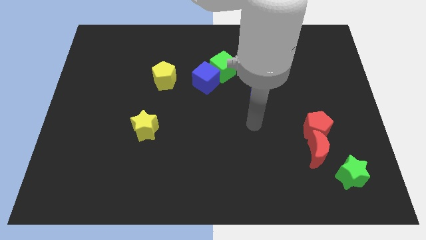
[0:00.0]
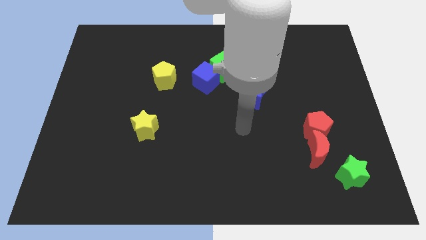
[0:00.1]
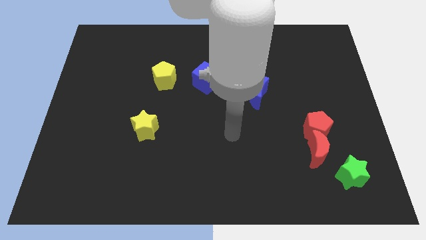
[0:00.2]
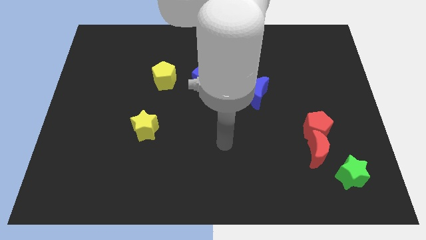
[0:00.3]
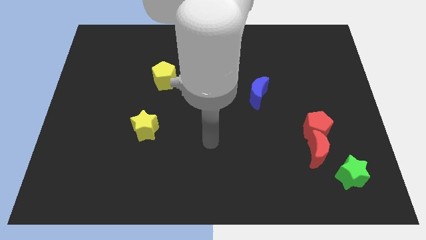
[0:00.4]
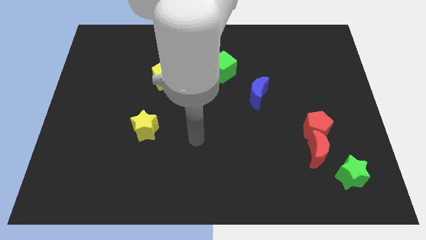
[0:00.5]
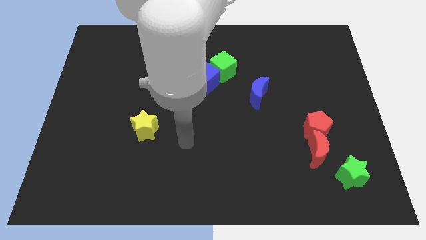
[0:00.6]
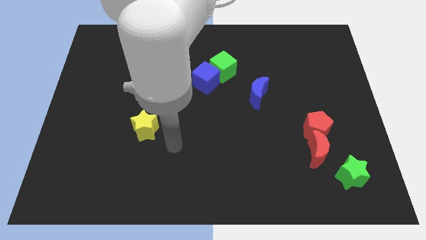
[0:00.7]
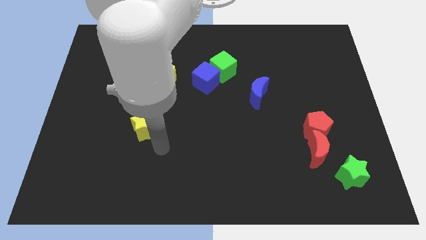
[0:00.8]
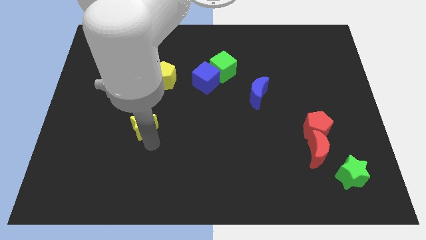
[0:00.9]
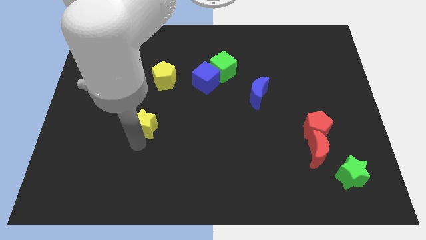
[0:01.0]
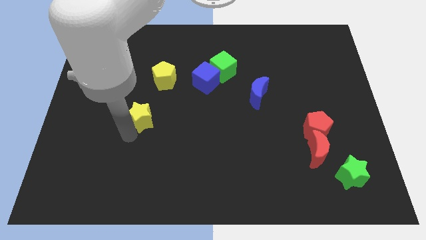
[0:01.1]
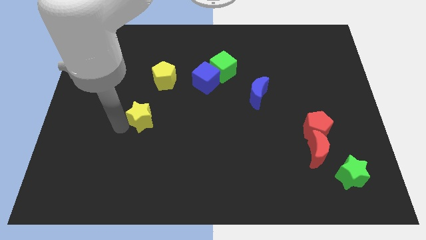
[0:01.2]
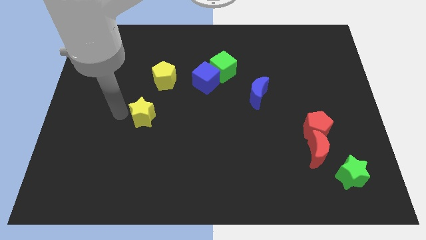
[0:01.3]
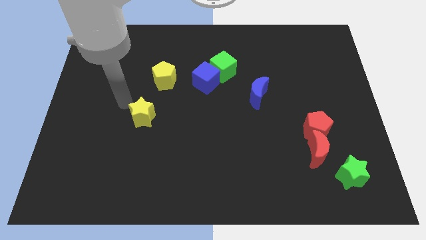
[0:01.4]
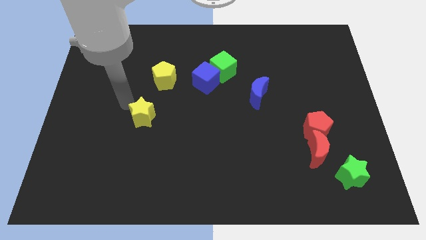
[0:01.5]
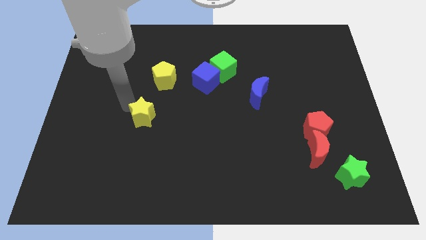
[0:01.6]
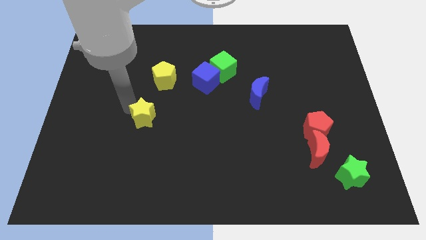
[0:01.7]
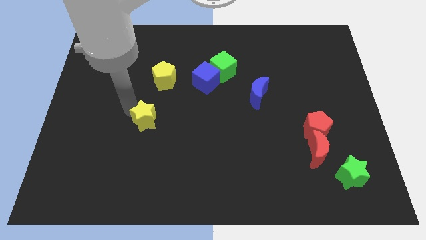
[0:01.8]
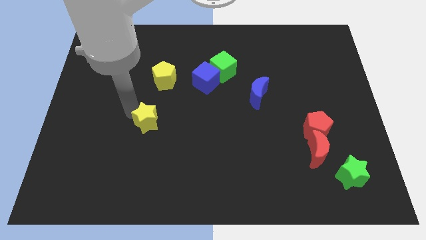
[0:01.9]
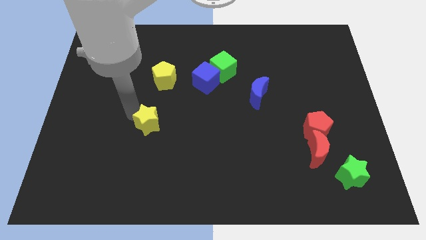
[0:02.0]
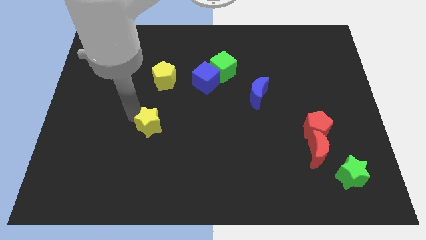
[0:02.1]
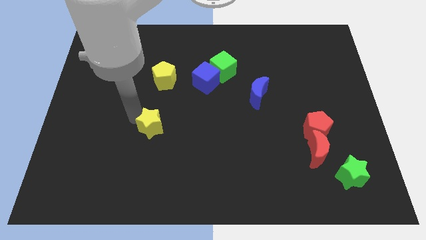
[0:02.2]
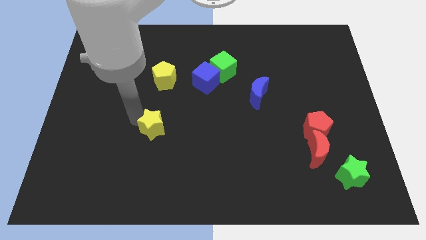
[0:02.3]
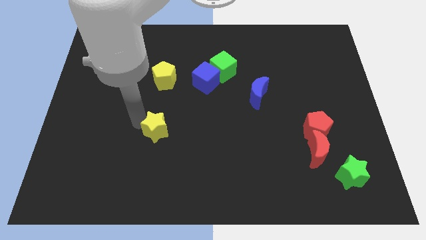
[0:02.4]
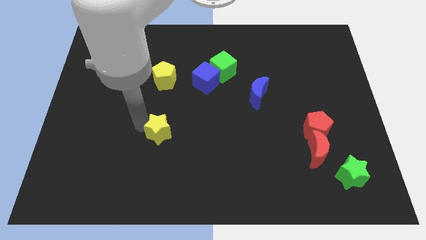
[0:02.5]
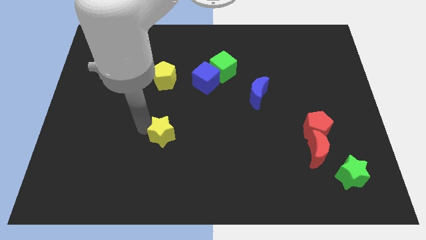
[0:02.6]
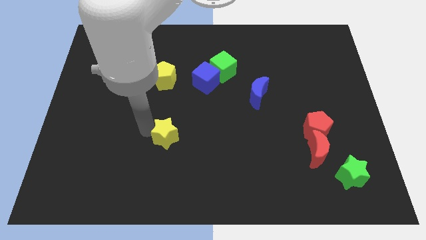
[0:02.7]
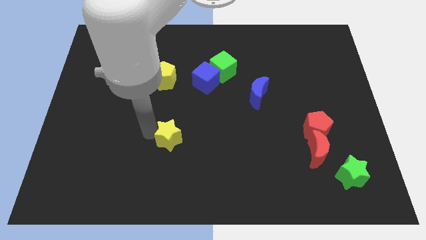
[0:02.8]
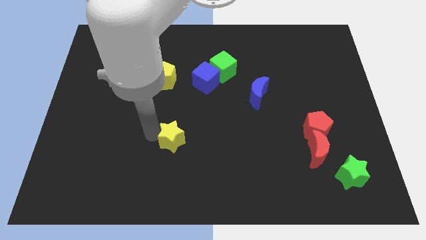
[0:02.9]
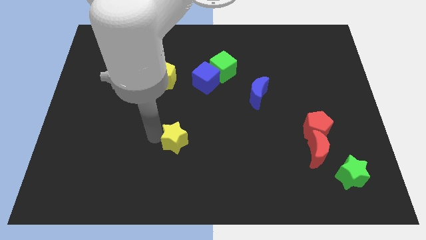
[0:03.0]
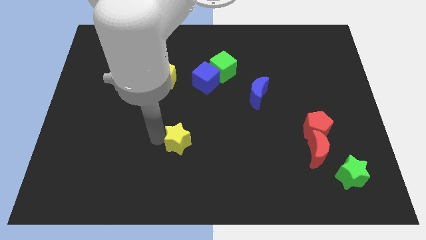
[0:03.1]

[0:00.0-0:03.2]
push the yellow star slightly to the right

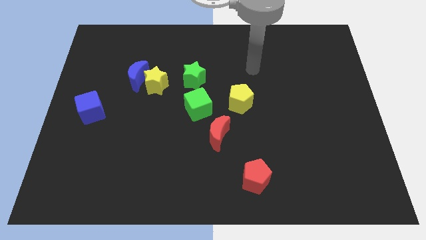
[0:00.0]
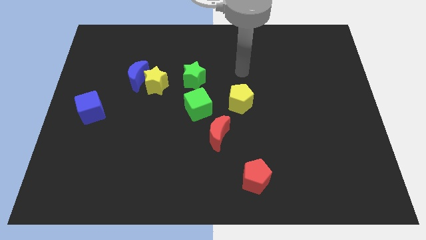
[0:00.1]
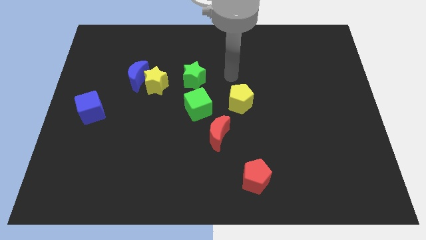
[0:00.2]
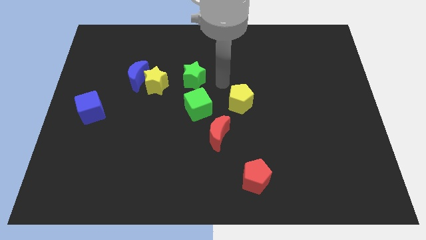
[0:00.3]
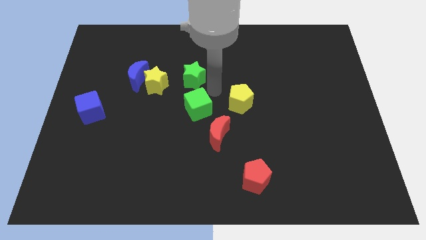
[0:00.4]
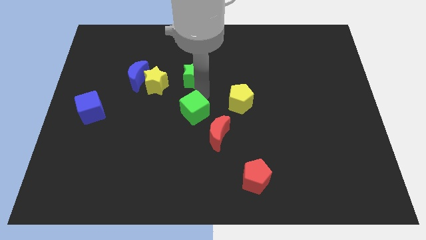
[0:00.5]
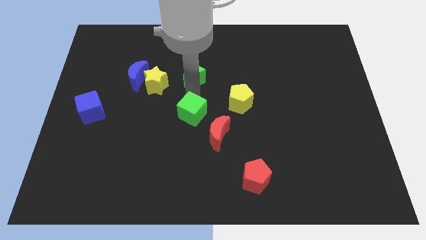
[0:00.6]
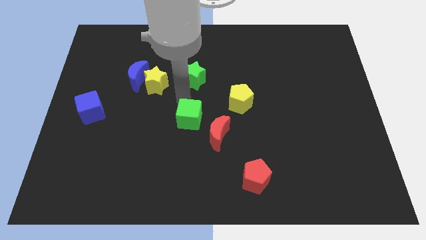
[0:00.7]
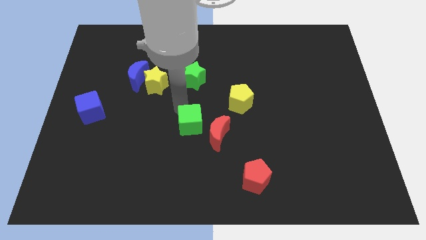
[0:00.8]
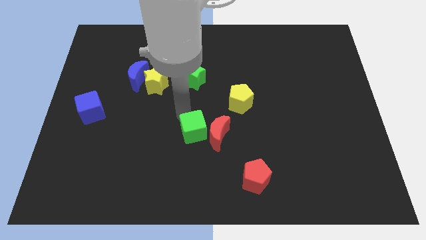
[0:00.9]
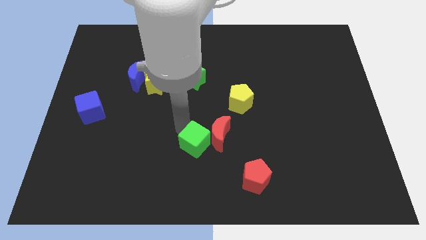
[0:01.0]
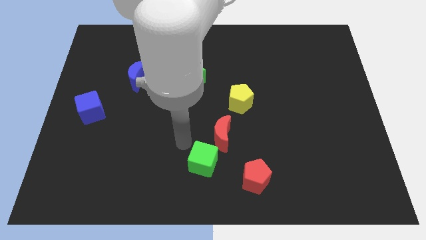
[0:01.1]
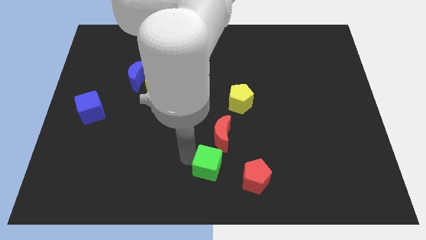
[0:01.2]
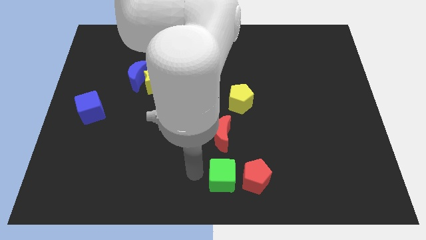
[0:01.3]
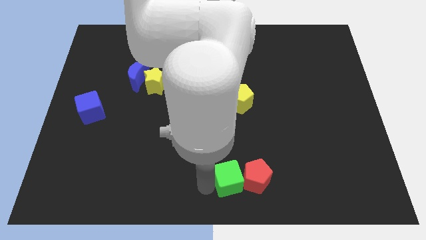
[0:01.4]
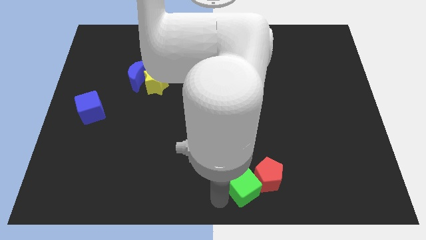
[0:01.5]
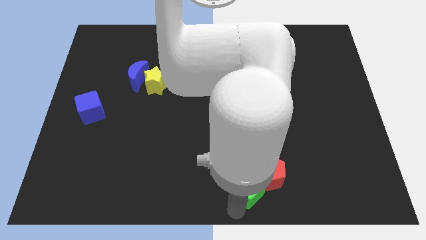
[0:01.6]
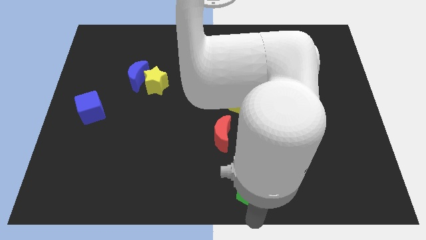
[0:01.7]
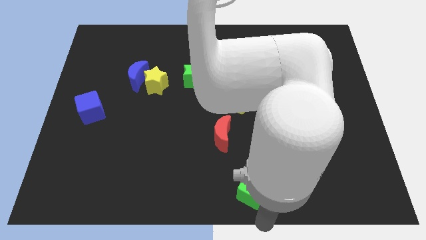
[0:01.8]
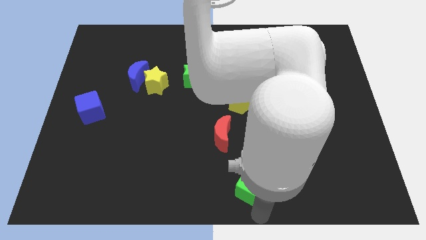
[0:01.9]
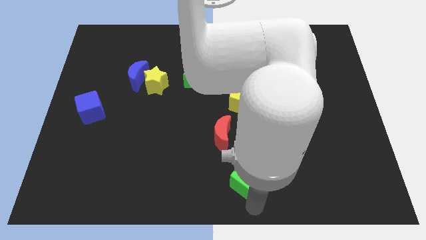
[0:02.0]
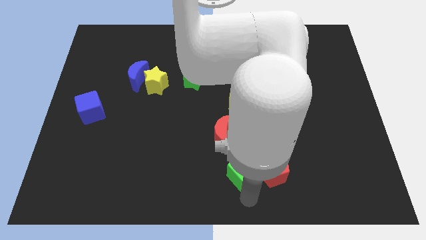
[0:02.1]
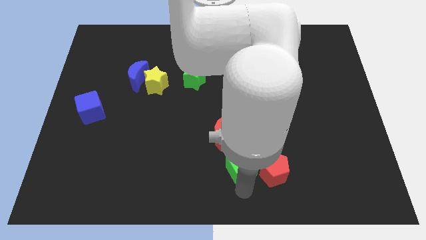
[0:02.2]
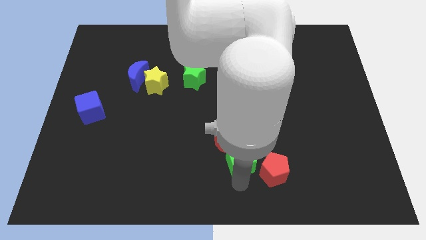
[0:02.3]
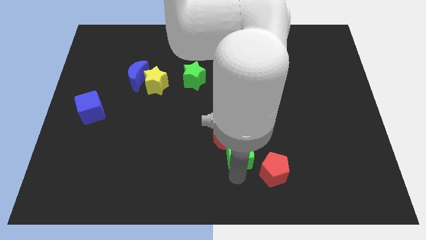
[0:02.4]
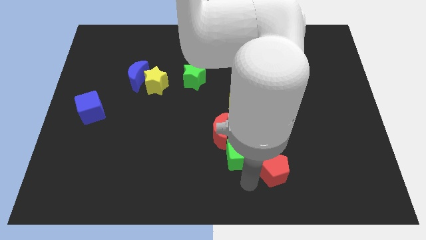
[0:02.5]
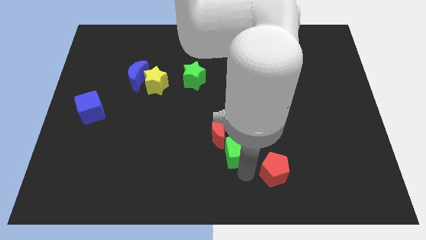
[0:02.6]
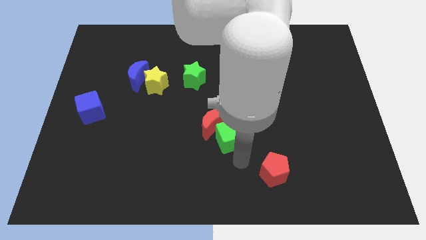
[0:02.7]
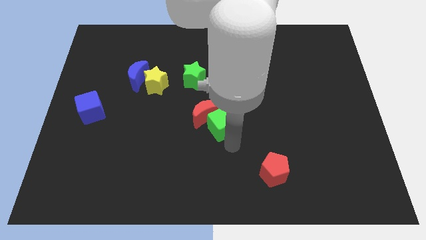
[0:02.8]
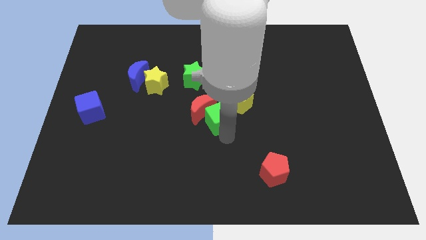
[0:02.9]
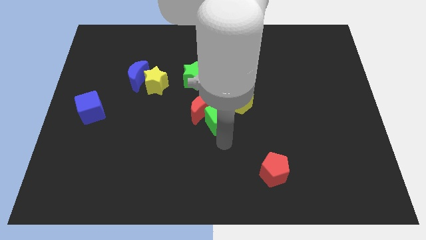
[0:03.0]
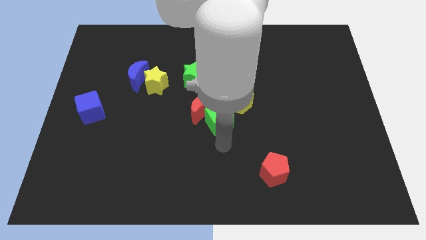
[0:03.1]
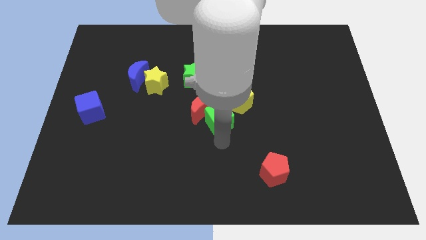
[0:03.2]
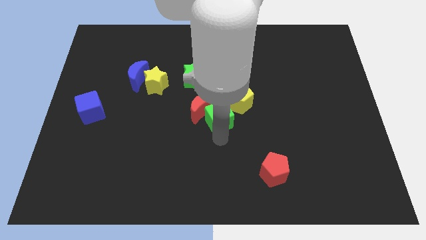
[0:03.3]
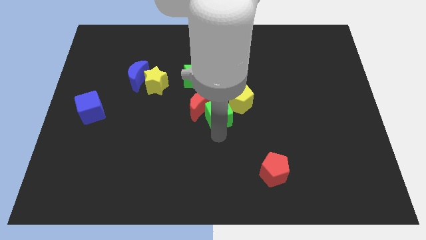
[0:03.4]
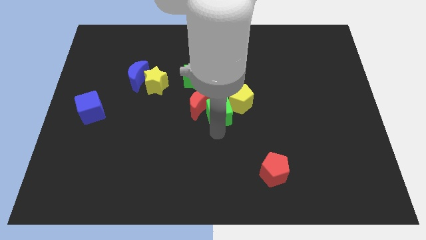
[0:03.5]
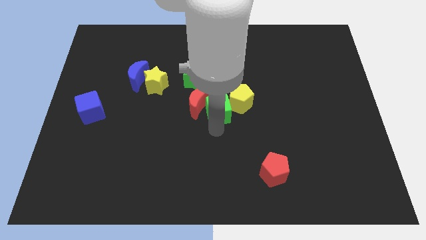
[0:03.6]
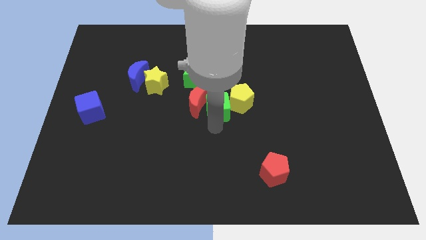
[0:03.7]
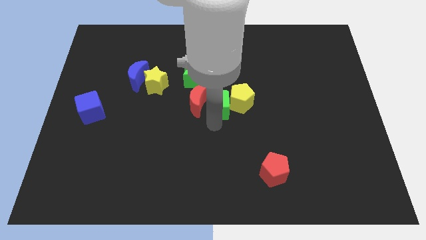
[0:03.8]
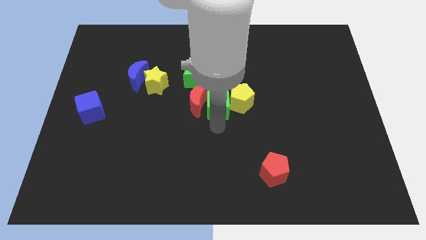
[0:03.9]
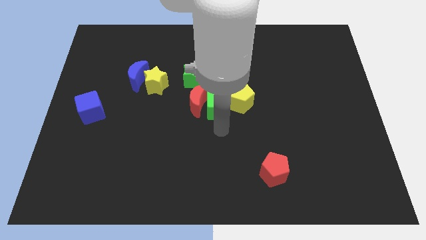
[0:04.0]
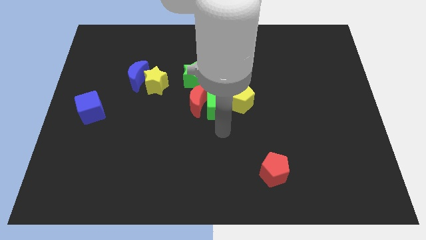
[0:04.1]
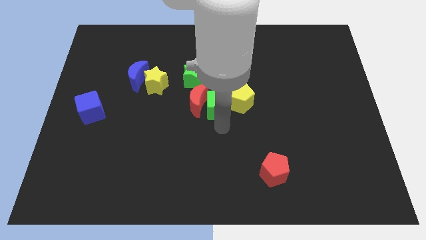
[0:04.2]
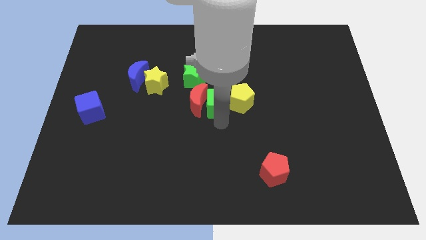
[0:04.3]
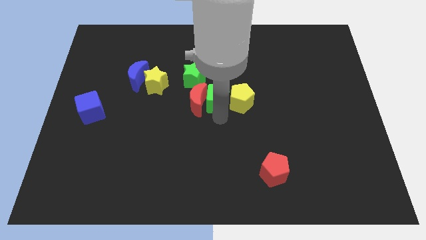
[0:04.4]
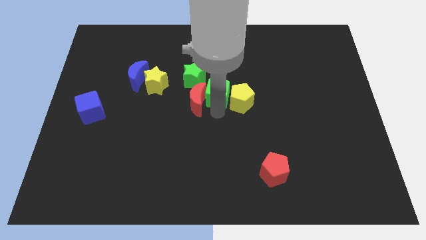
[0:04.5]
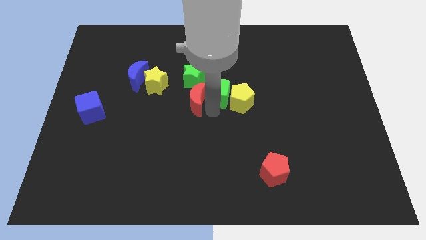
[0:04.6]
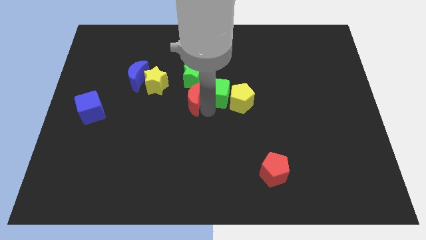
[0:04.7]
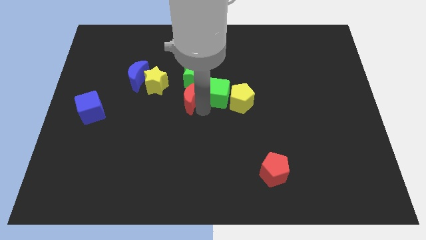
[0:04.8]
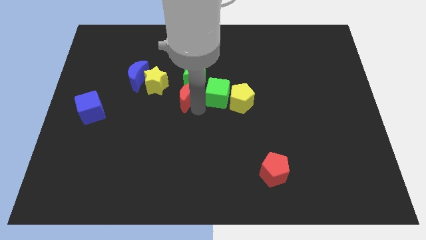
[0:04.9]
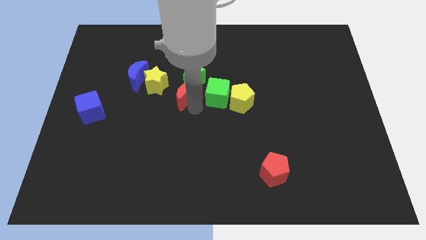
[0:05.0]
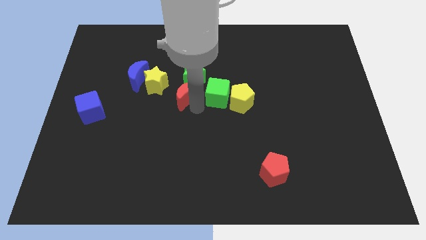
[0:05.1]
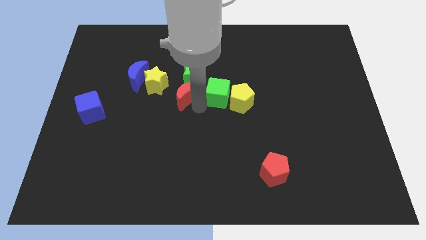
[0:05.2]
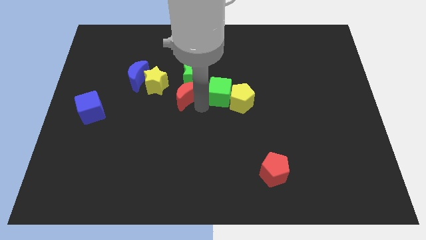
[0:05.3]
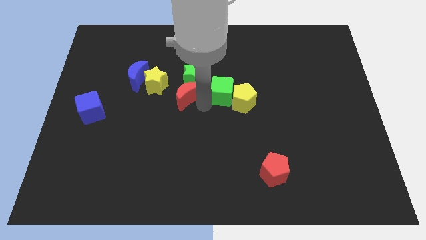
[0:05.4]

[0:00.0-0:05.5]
slide the green cube a bit up and right
